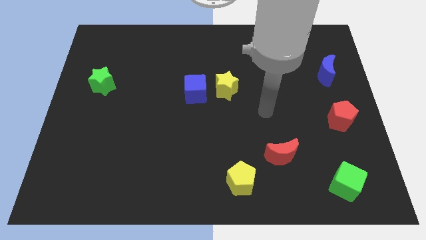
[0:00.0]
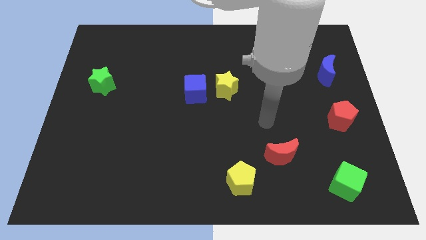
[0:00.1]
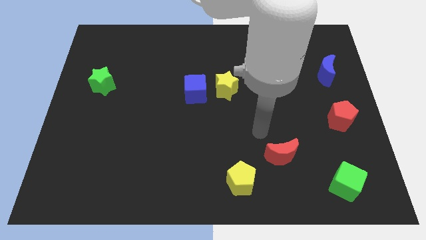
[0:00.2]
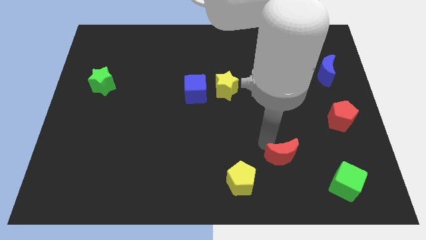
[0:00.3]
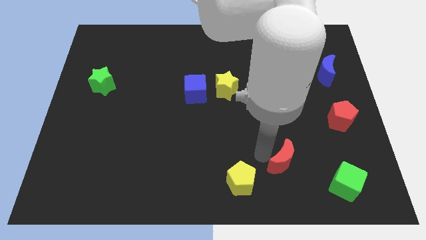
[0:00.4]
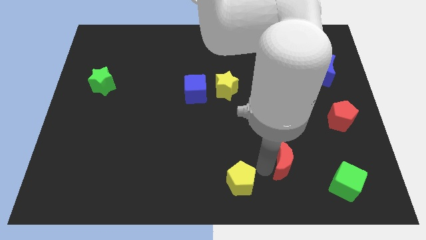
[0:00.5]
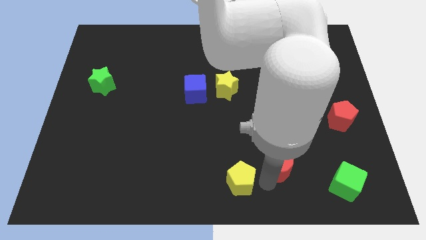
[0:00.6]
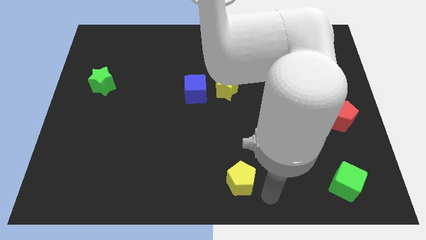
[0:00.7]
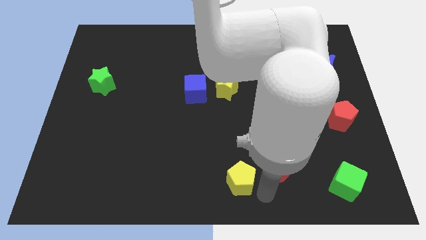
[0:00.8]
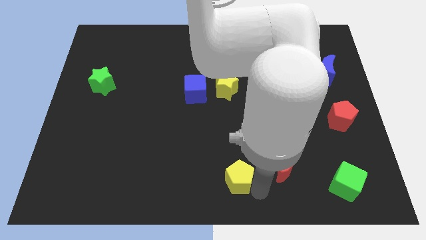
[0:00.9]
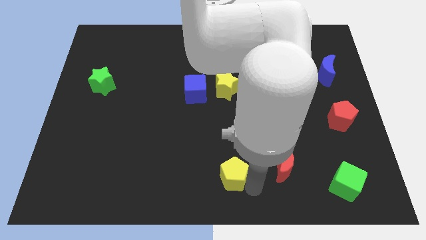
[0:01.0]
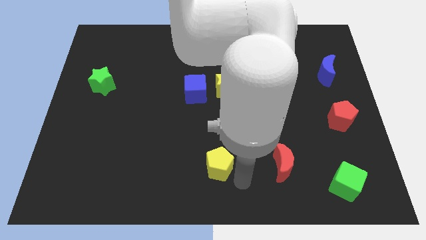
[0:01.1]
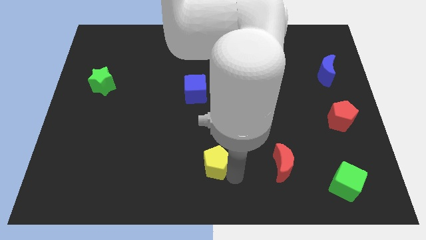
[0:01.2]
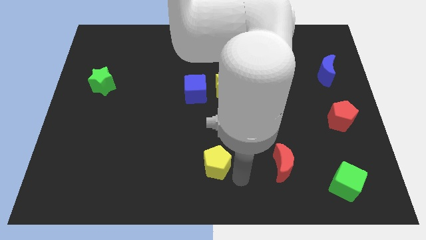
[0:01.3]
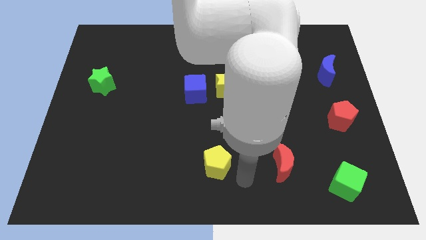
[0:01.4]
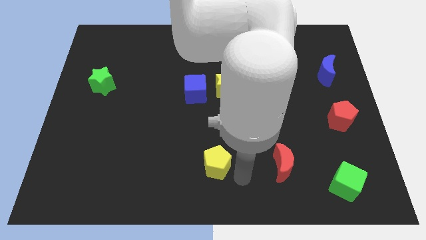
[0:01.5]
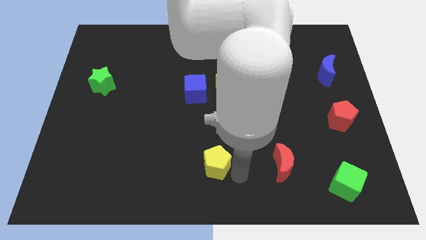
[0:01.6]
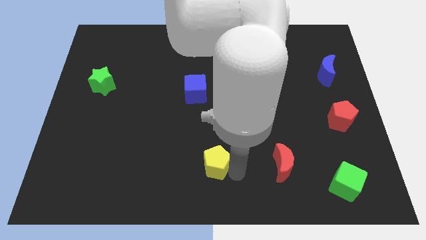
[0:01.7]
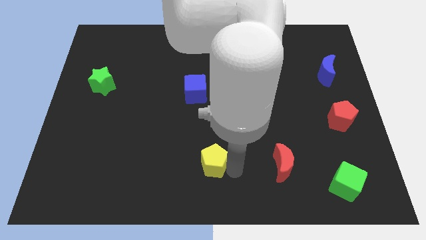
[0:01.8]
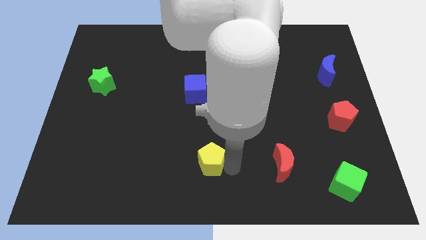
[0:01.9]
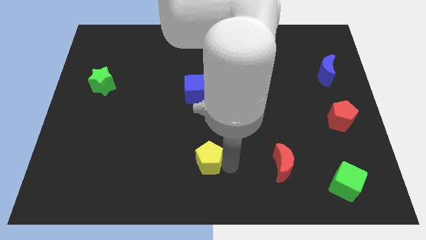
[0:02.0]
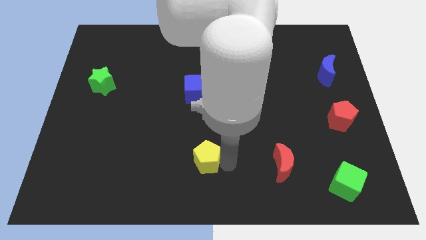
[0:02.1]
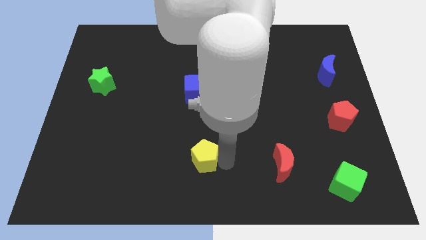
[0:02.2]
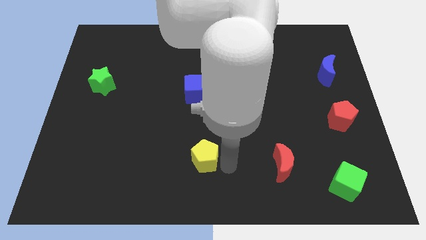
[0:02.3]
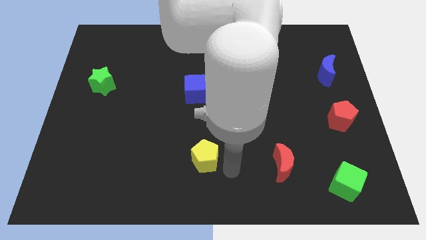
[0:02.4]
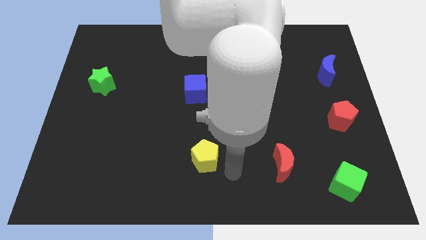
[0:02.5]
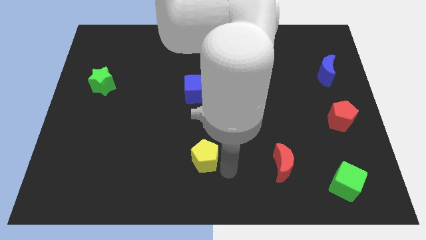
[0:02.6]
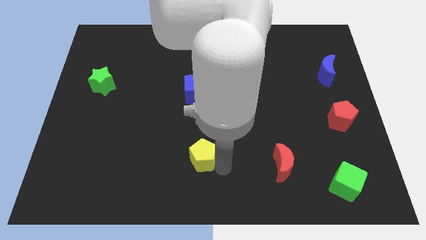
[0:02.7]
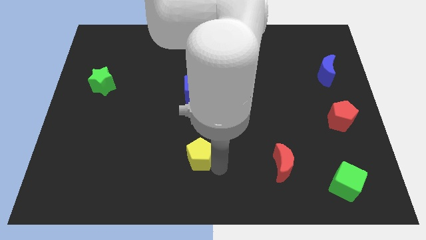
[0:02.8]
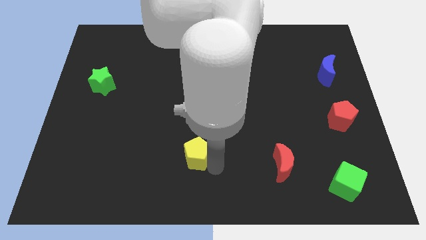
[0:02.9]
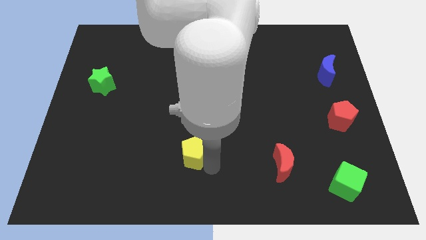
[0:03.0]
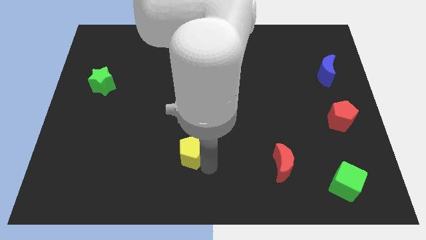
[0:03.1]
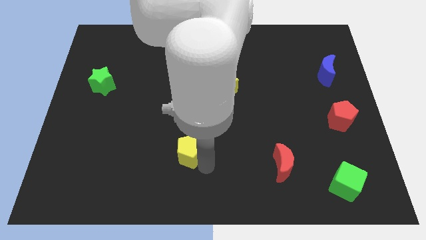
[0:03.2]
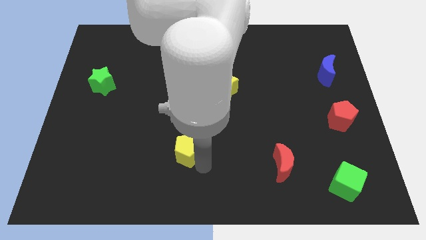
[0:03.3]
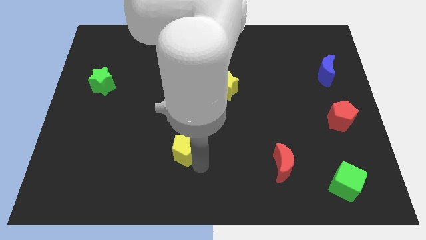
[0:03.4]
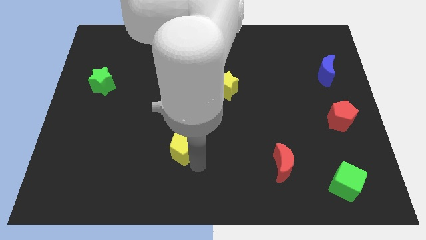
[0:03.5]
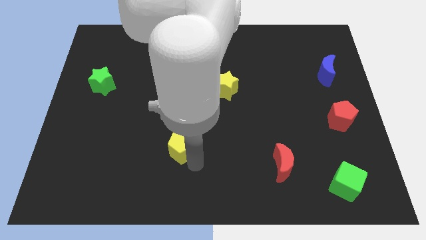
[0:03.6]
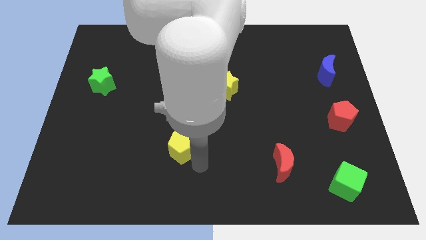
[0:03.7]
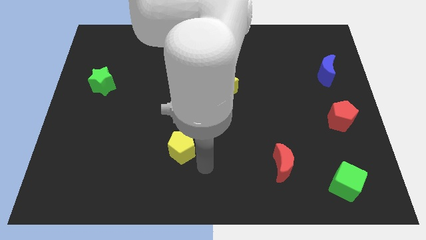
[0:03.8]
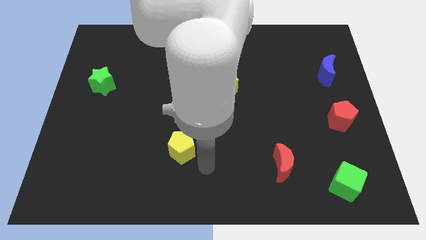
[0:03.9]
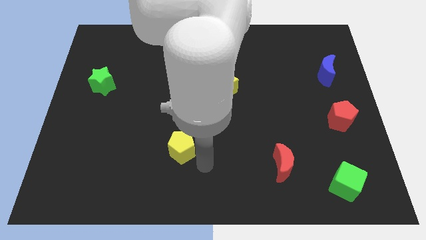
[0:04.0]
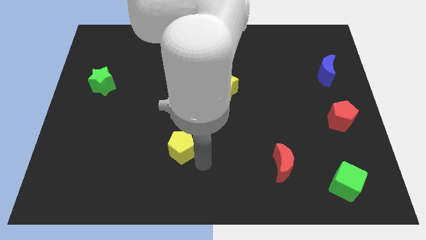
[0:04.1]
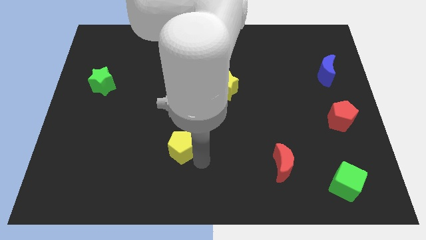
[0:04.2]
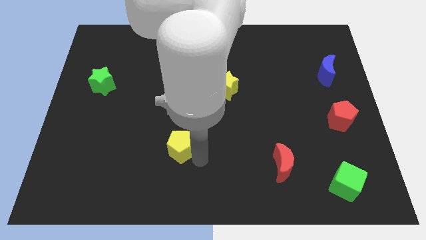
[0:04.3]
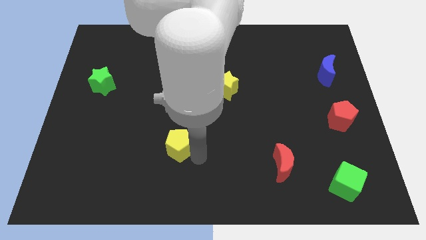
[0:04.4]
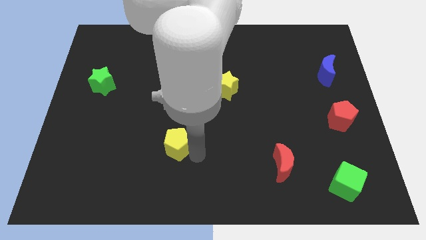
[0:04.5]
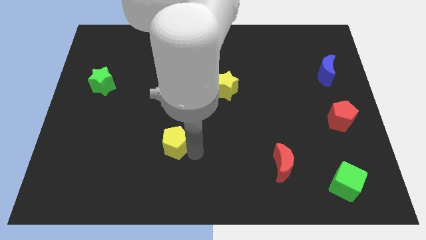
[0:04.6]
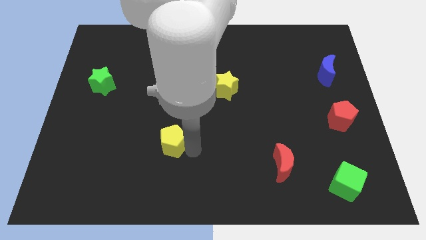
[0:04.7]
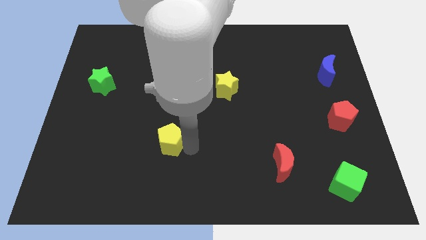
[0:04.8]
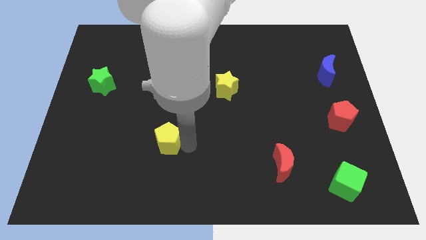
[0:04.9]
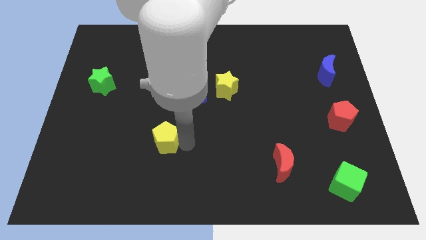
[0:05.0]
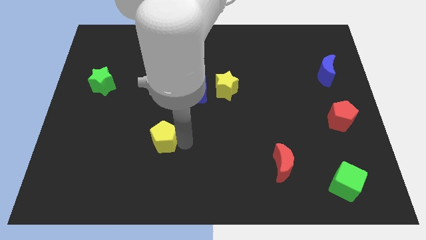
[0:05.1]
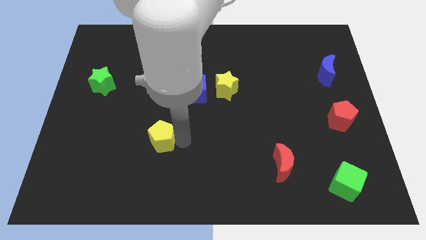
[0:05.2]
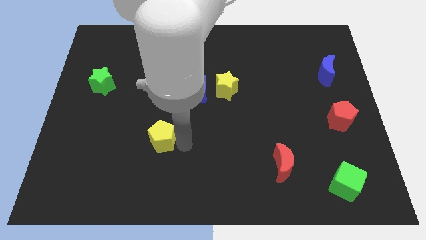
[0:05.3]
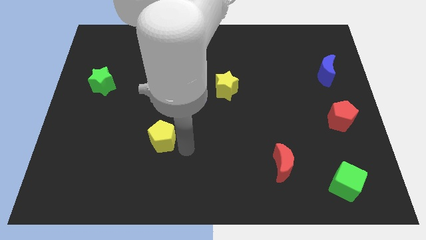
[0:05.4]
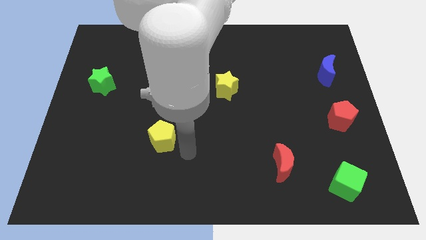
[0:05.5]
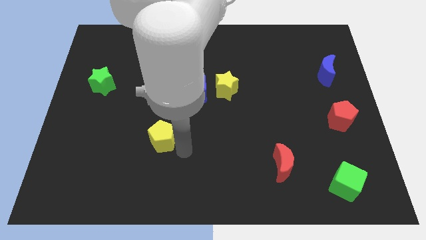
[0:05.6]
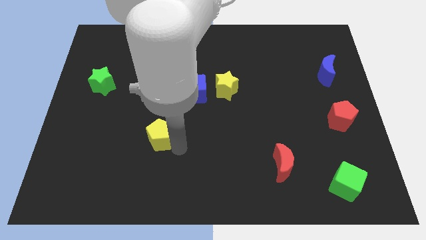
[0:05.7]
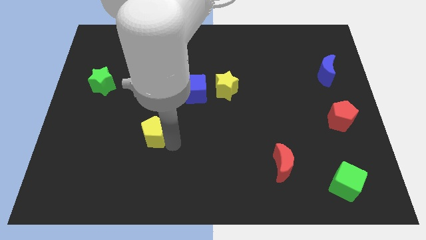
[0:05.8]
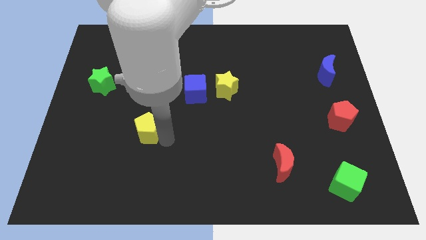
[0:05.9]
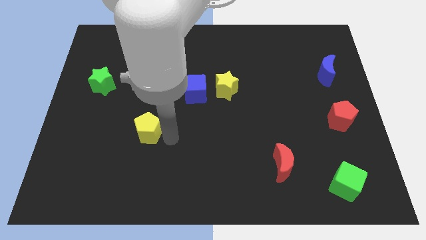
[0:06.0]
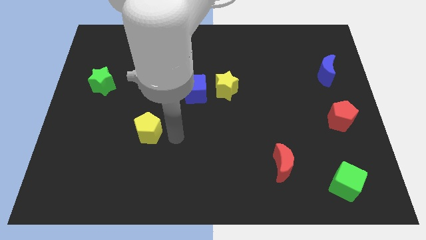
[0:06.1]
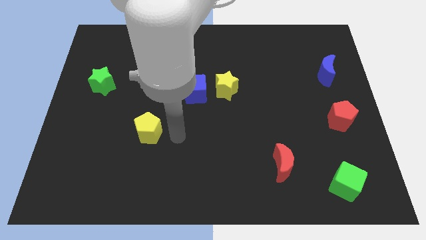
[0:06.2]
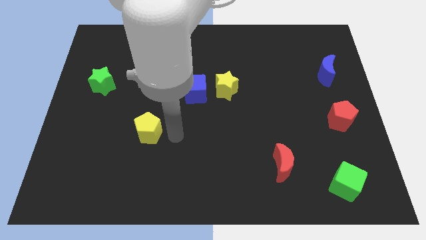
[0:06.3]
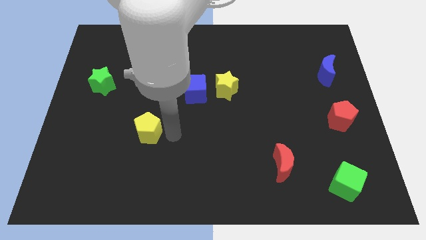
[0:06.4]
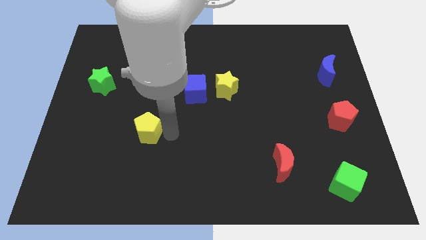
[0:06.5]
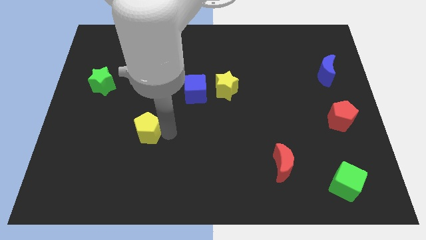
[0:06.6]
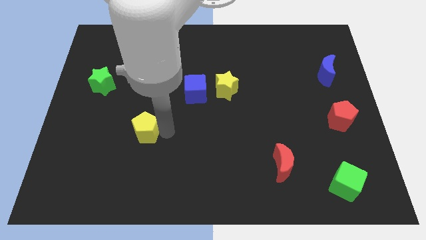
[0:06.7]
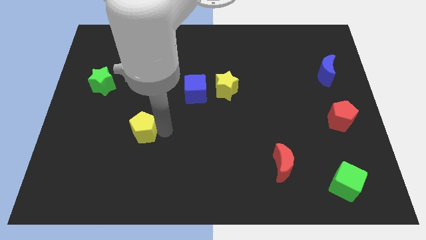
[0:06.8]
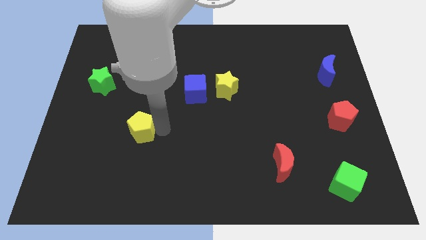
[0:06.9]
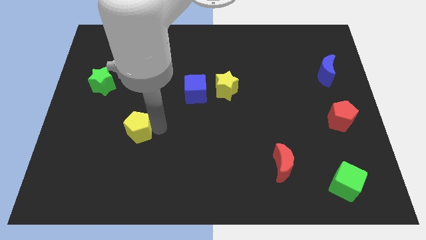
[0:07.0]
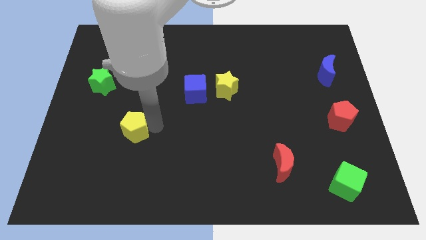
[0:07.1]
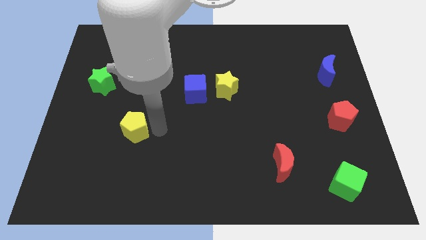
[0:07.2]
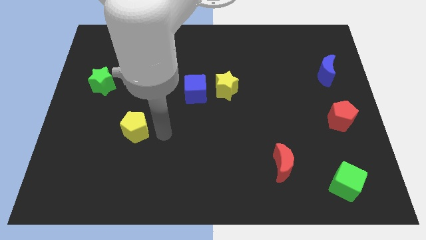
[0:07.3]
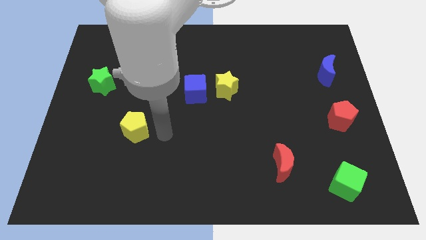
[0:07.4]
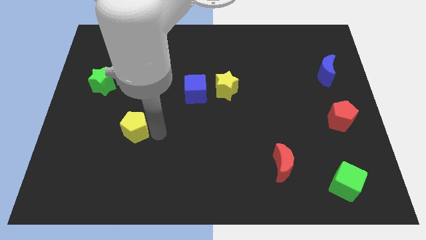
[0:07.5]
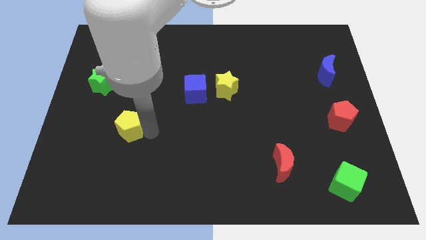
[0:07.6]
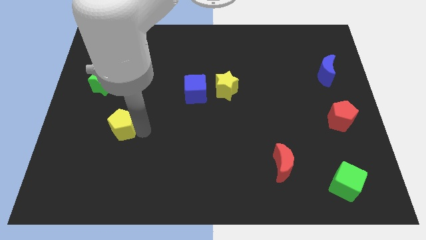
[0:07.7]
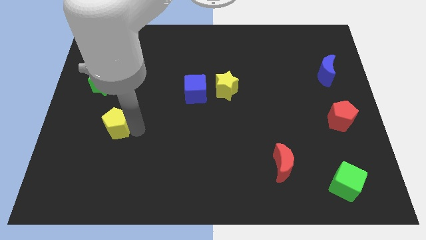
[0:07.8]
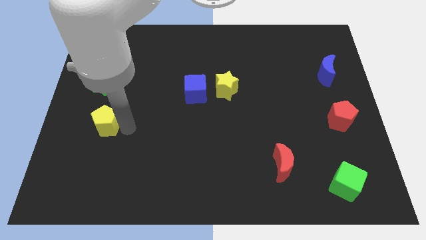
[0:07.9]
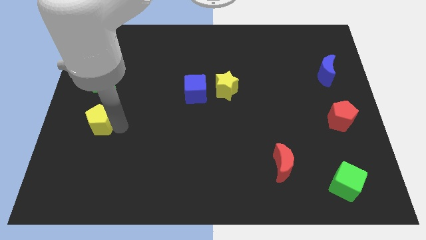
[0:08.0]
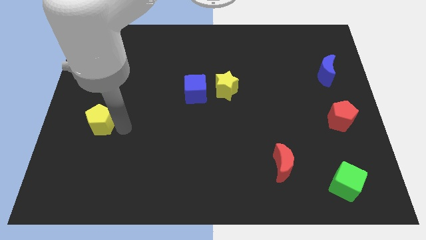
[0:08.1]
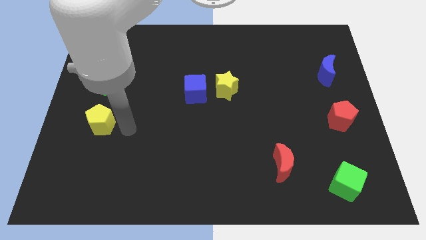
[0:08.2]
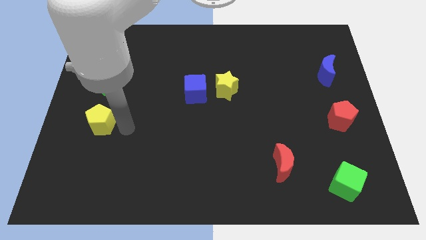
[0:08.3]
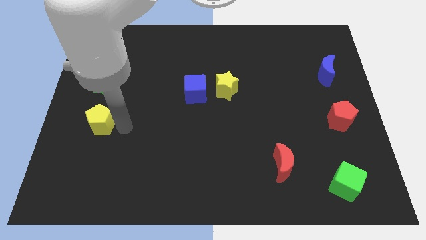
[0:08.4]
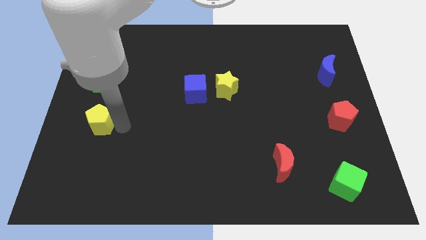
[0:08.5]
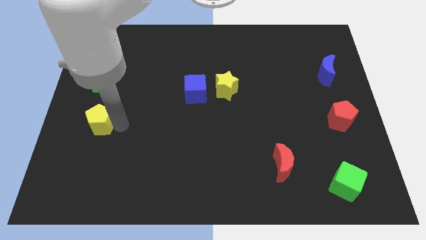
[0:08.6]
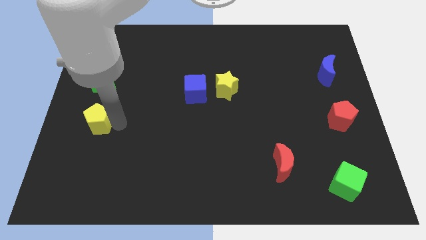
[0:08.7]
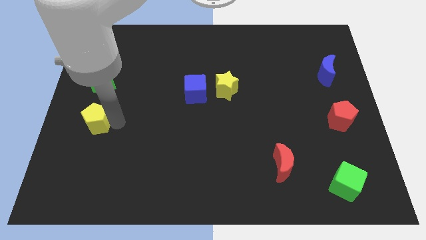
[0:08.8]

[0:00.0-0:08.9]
slide the yellow pentagon to the left side of the board
